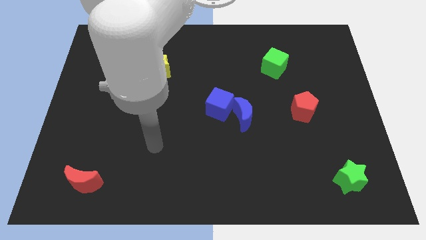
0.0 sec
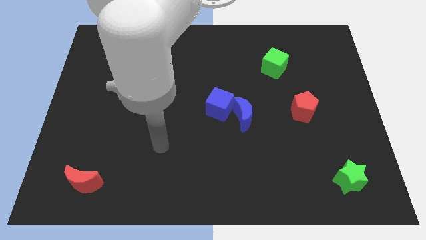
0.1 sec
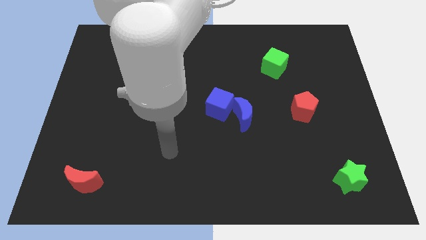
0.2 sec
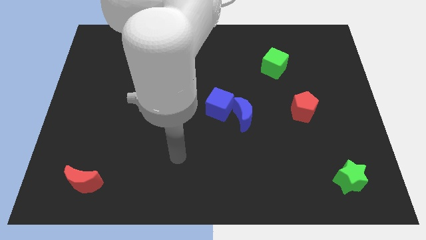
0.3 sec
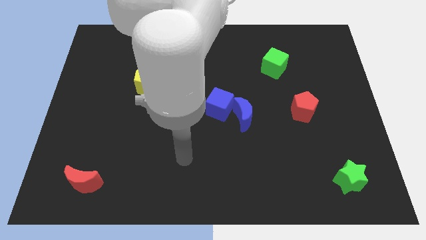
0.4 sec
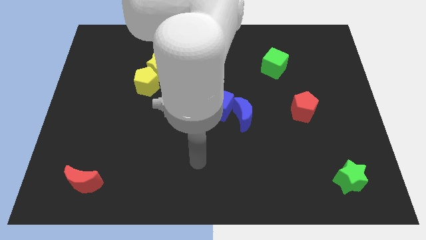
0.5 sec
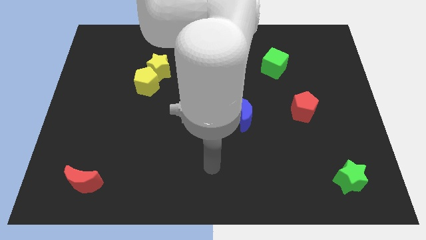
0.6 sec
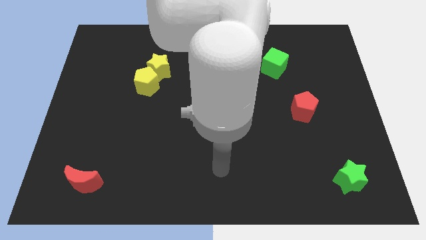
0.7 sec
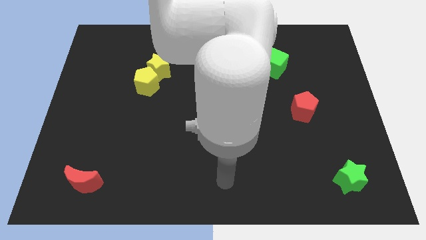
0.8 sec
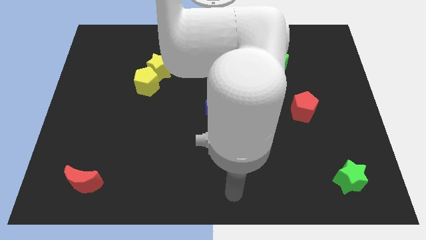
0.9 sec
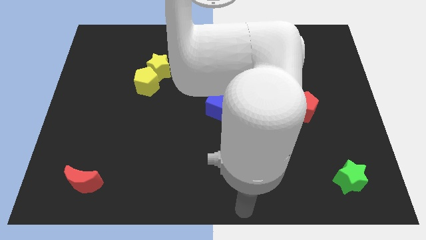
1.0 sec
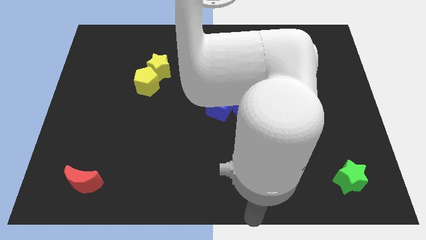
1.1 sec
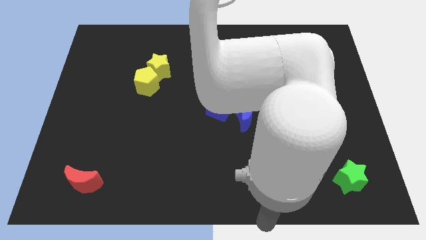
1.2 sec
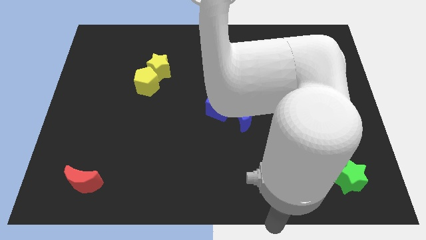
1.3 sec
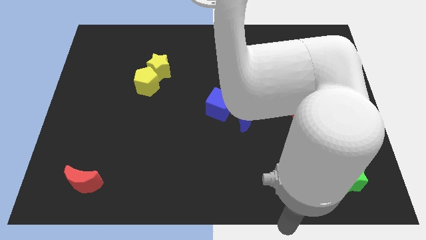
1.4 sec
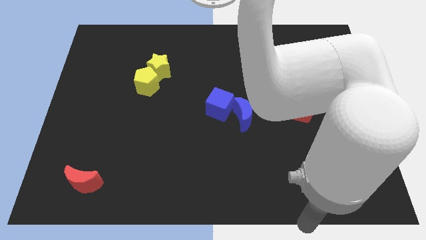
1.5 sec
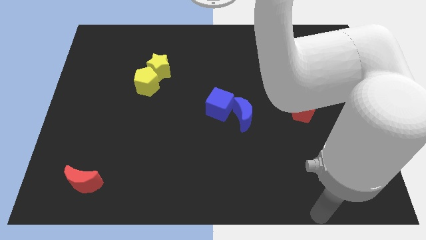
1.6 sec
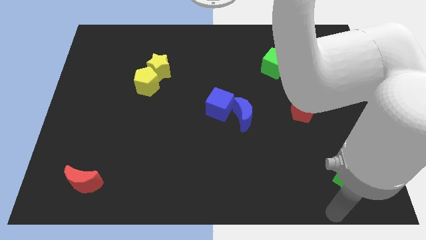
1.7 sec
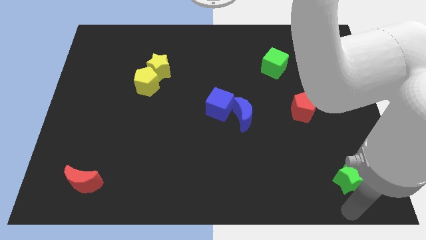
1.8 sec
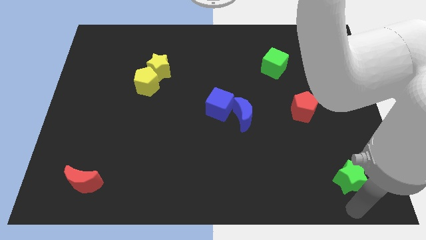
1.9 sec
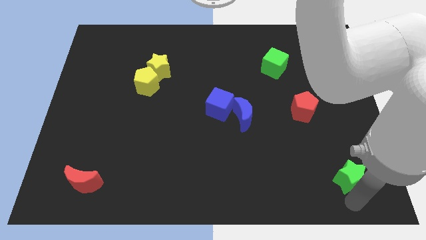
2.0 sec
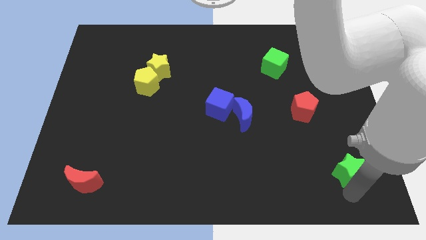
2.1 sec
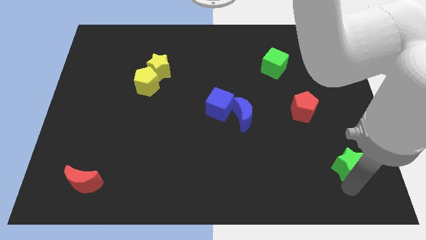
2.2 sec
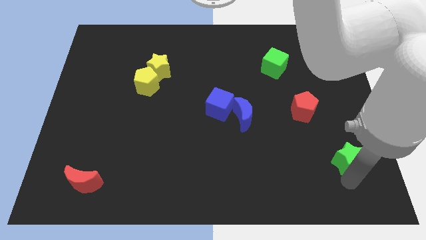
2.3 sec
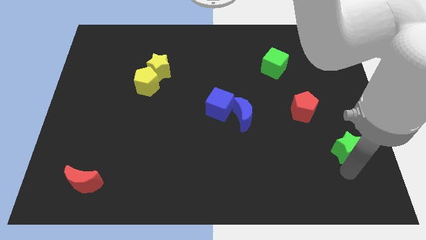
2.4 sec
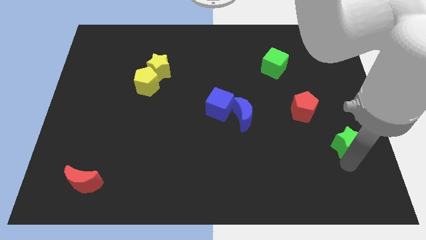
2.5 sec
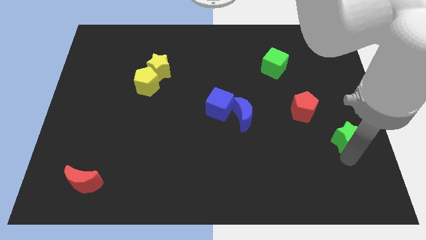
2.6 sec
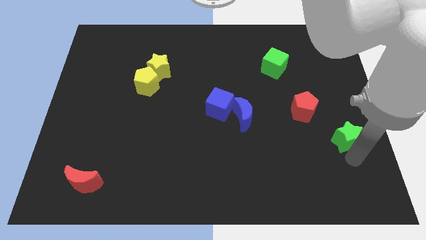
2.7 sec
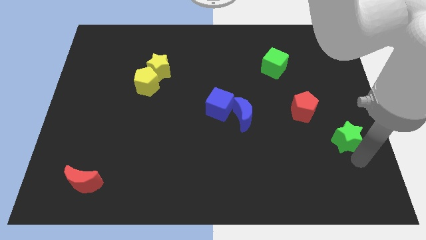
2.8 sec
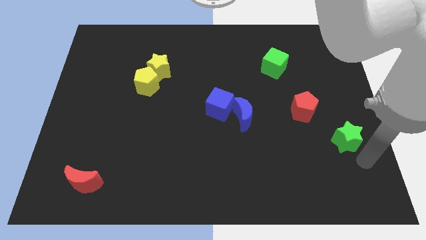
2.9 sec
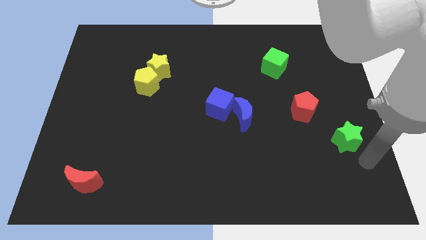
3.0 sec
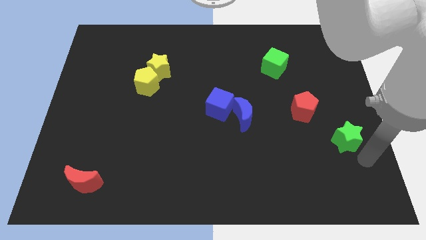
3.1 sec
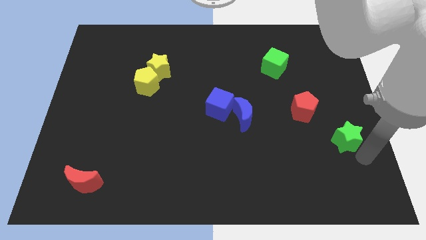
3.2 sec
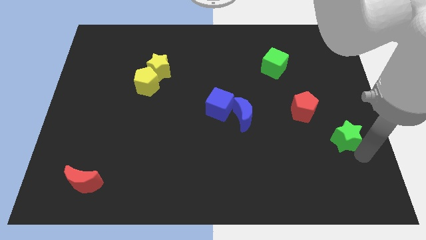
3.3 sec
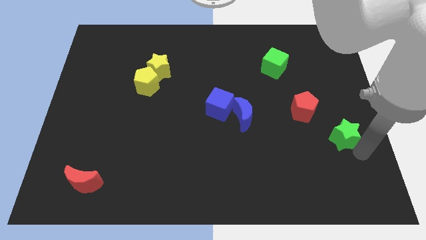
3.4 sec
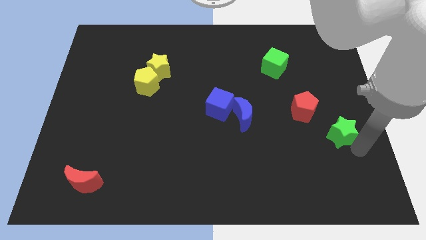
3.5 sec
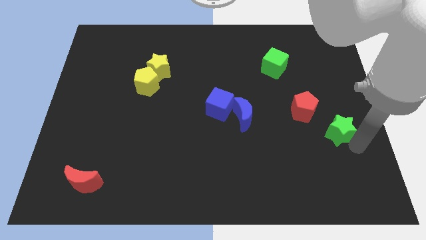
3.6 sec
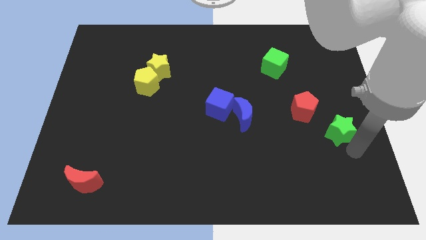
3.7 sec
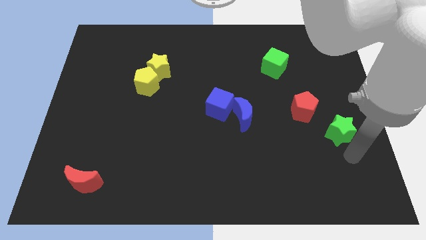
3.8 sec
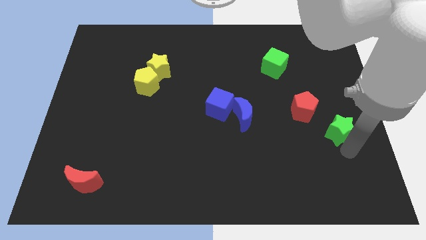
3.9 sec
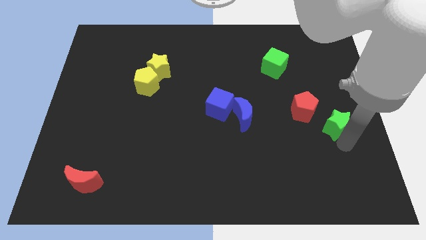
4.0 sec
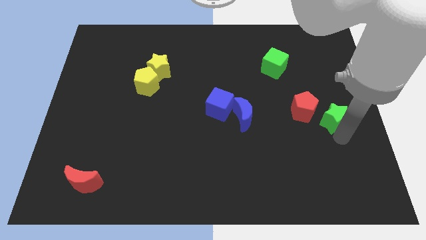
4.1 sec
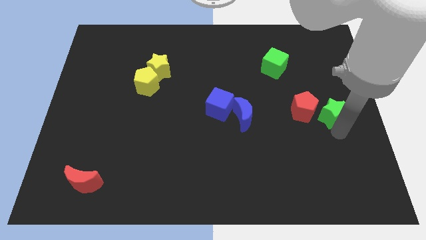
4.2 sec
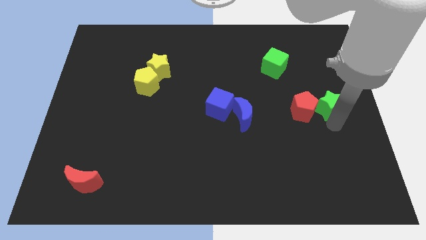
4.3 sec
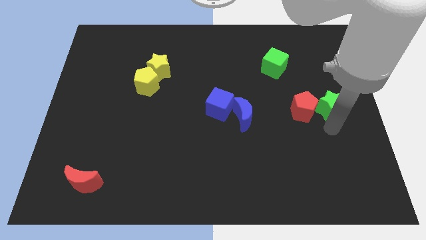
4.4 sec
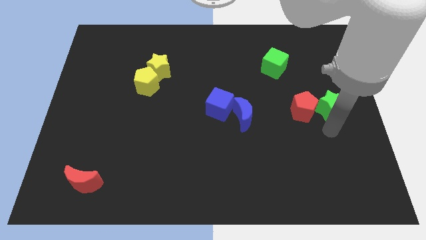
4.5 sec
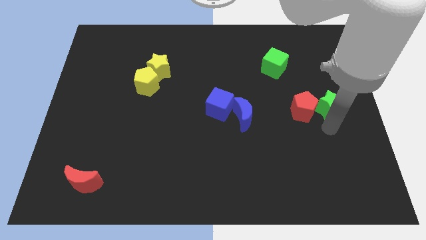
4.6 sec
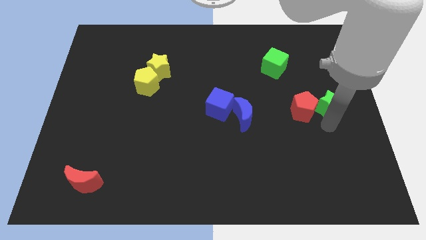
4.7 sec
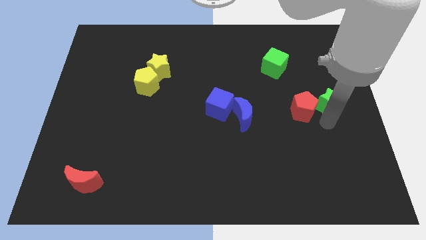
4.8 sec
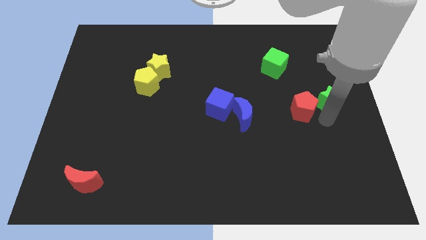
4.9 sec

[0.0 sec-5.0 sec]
move the green star up

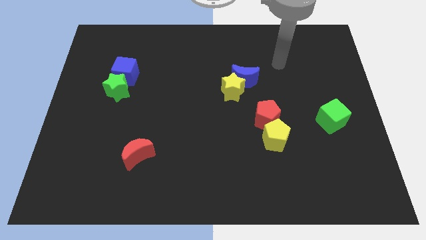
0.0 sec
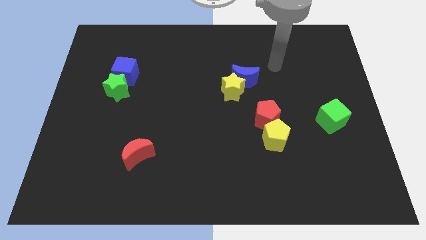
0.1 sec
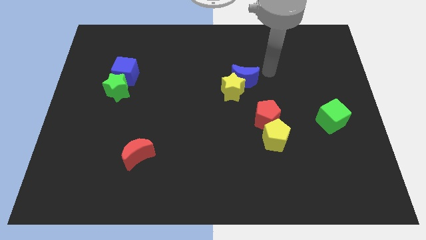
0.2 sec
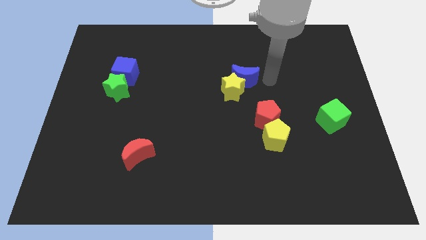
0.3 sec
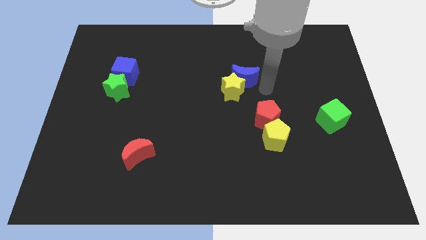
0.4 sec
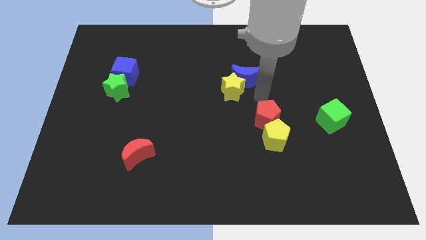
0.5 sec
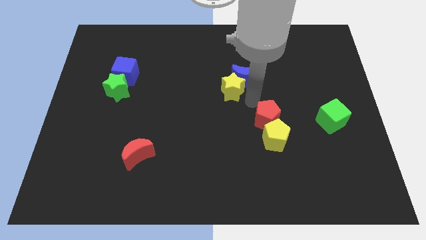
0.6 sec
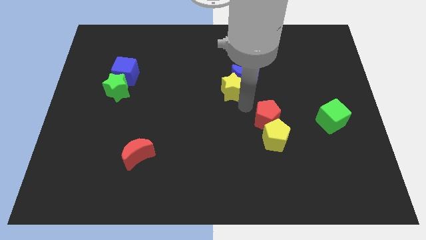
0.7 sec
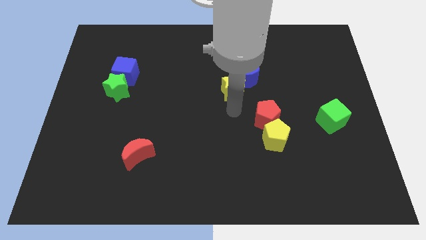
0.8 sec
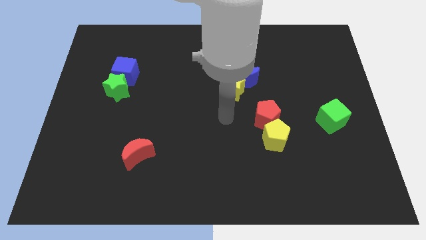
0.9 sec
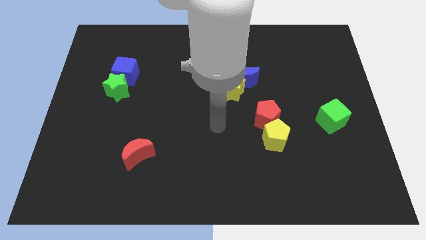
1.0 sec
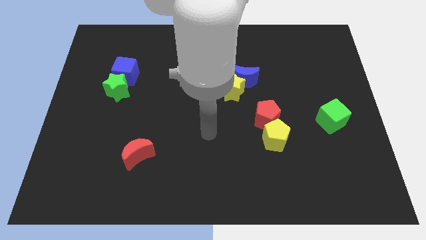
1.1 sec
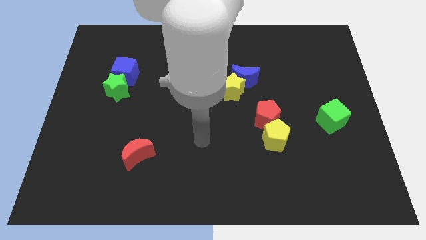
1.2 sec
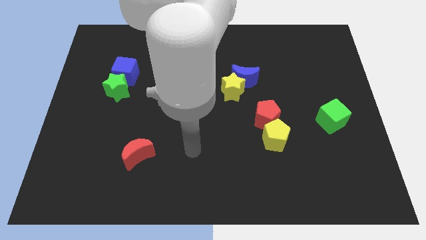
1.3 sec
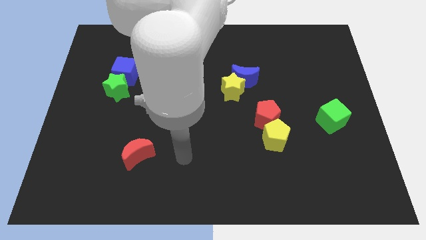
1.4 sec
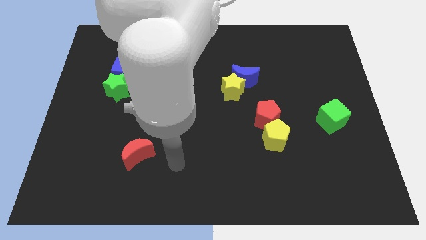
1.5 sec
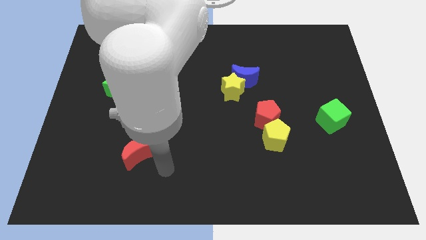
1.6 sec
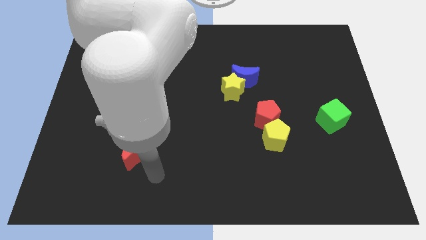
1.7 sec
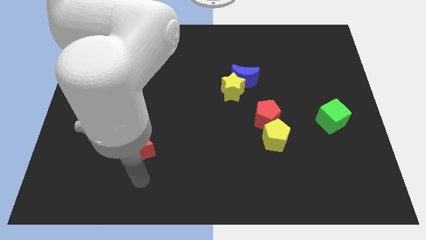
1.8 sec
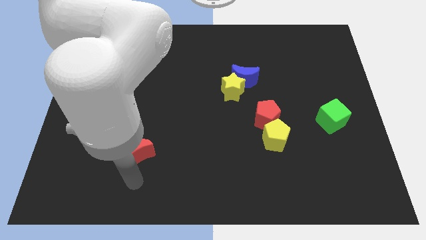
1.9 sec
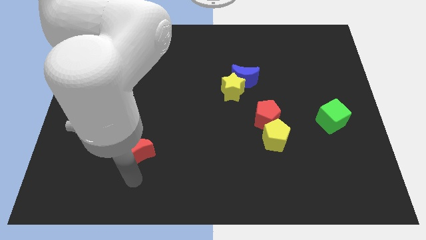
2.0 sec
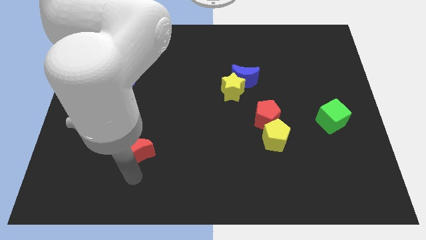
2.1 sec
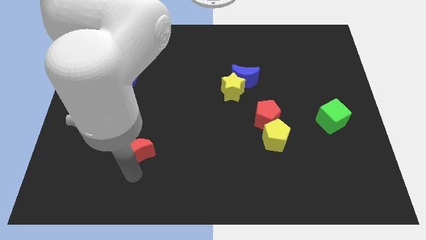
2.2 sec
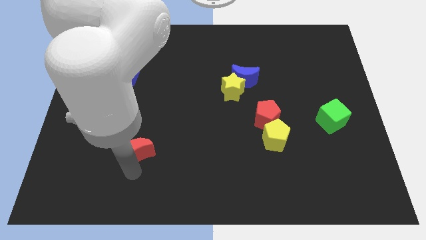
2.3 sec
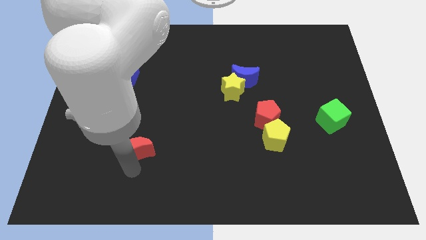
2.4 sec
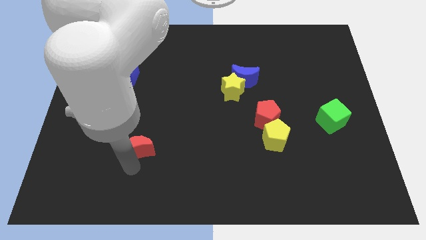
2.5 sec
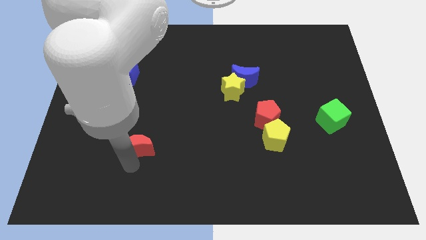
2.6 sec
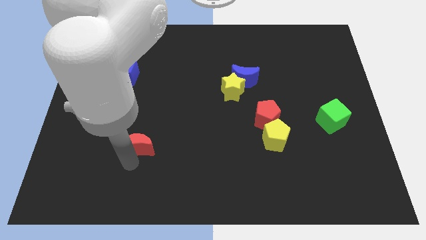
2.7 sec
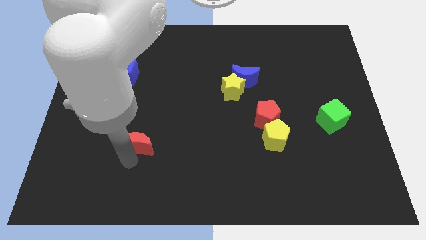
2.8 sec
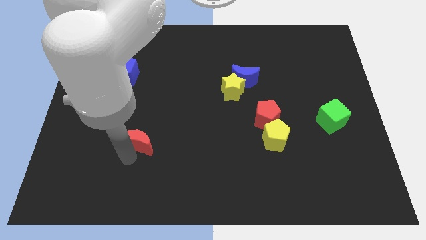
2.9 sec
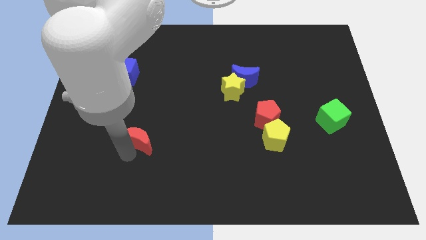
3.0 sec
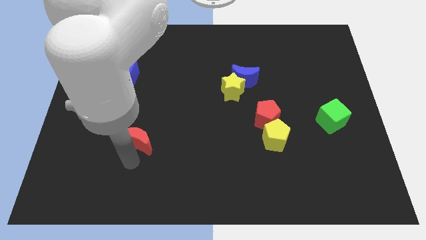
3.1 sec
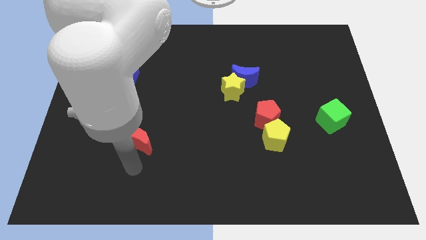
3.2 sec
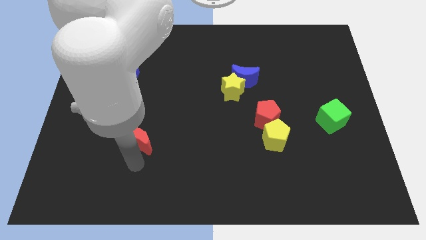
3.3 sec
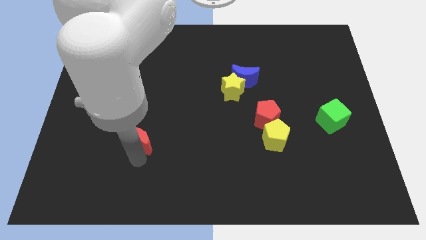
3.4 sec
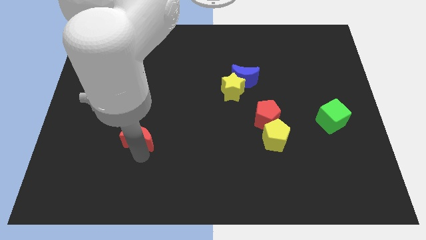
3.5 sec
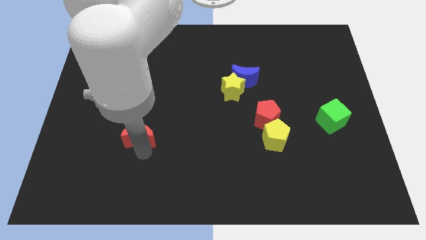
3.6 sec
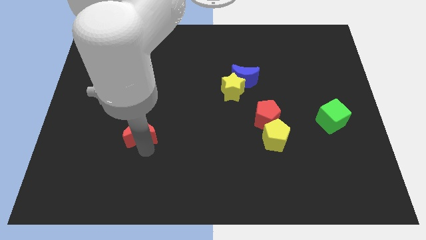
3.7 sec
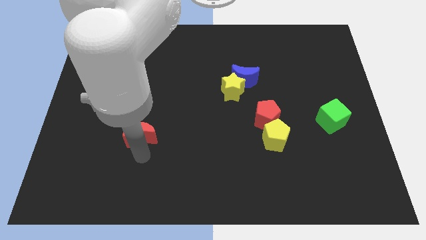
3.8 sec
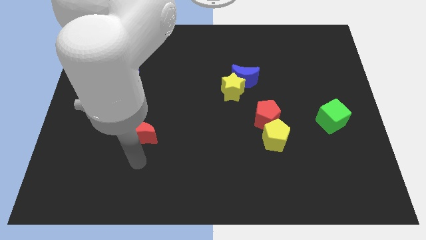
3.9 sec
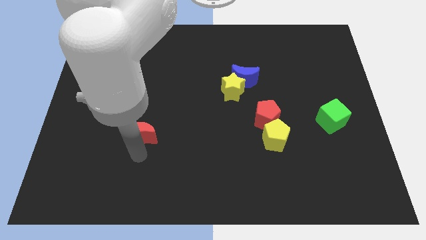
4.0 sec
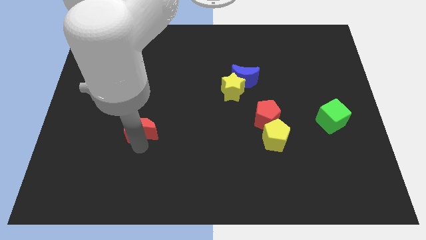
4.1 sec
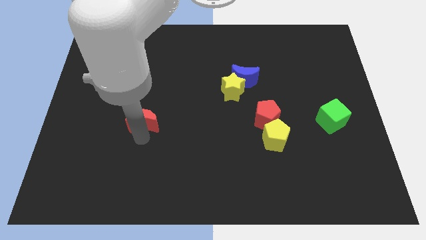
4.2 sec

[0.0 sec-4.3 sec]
move the red moon up a little
